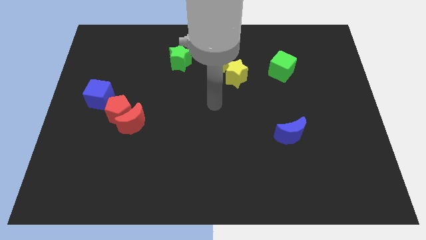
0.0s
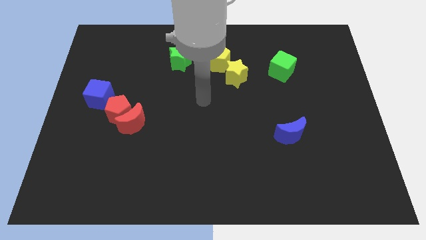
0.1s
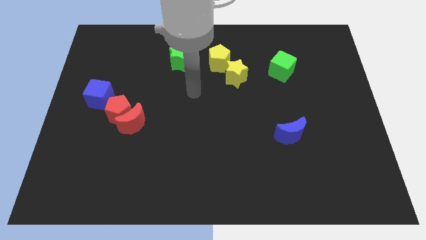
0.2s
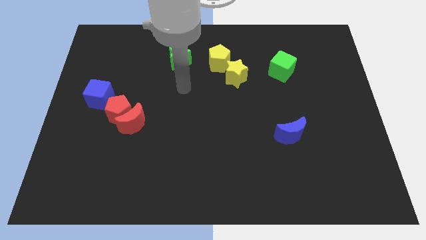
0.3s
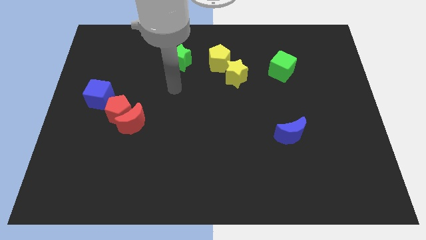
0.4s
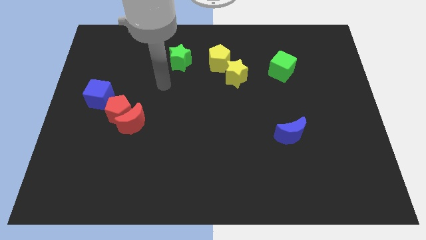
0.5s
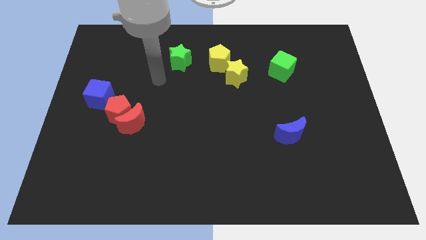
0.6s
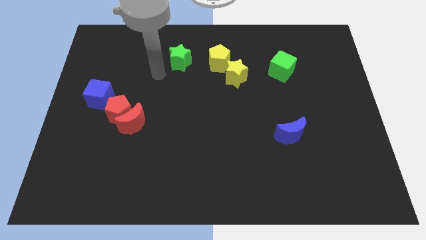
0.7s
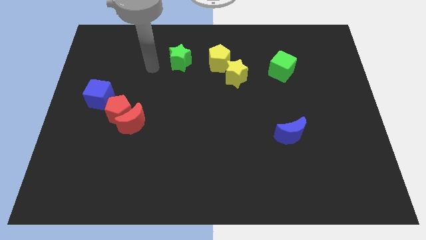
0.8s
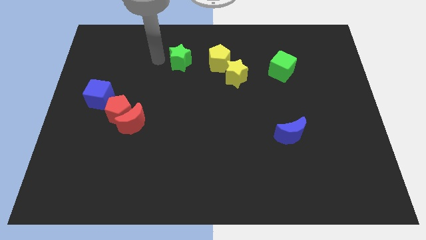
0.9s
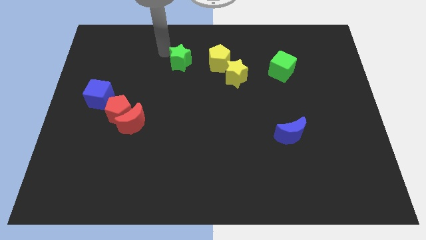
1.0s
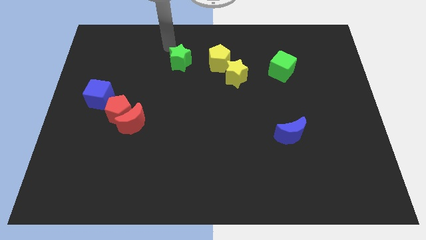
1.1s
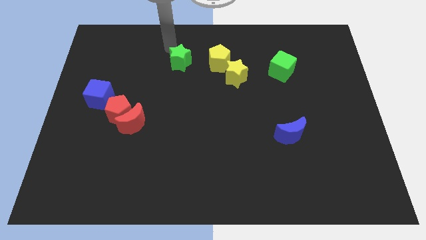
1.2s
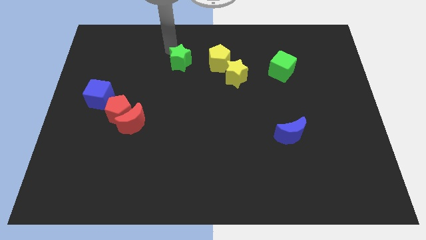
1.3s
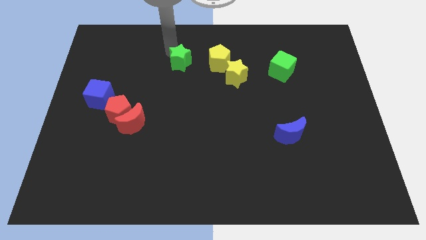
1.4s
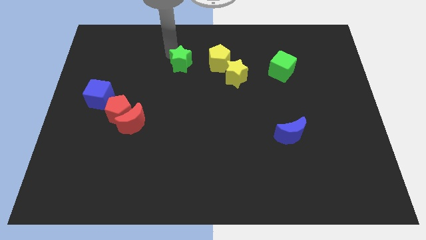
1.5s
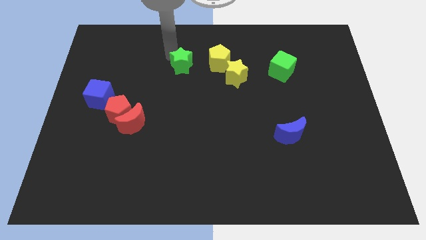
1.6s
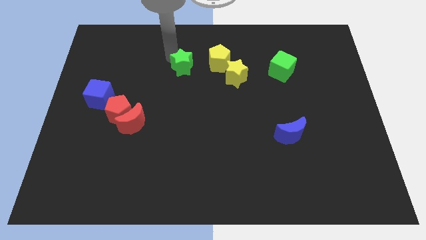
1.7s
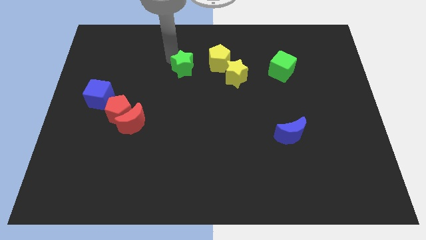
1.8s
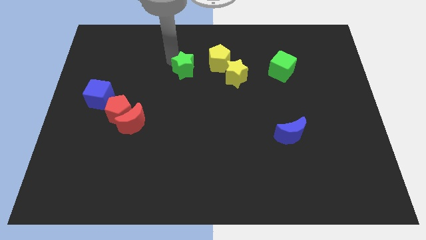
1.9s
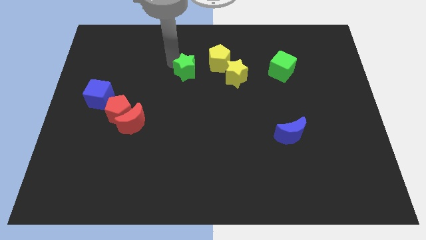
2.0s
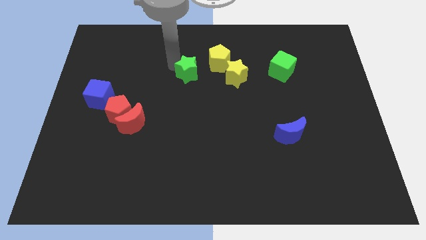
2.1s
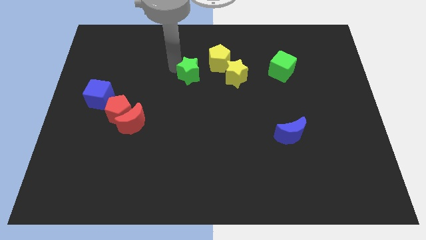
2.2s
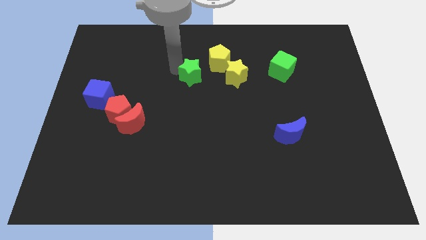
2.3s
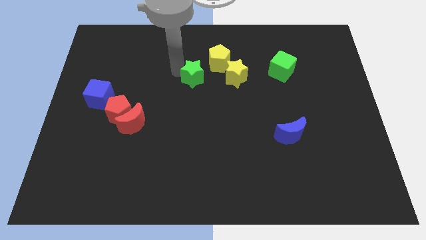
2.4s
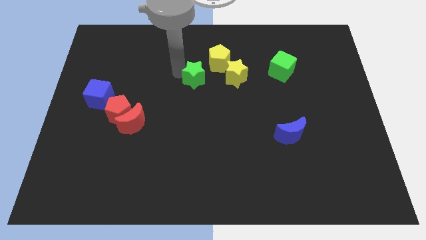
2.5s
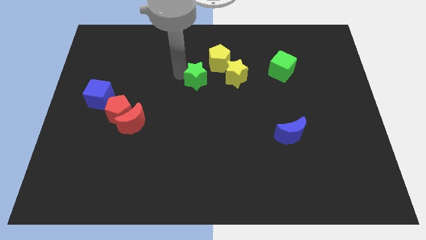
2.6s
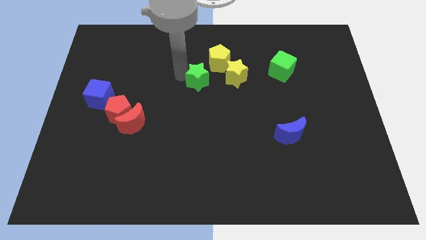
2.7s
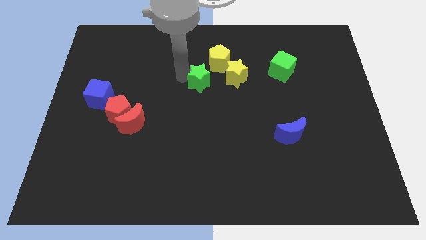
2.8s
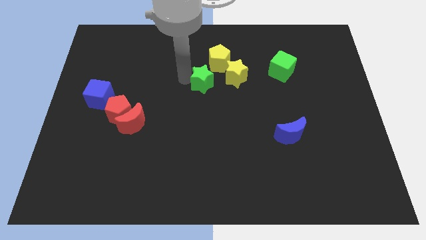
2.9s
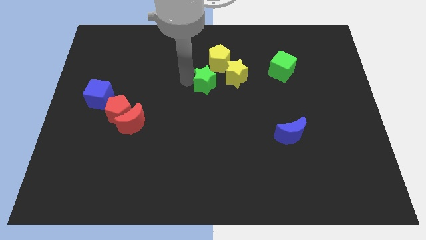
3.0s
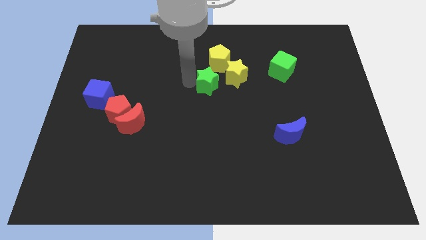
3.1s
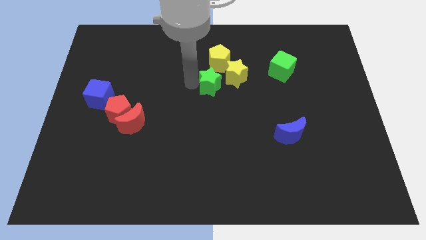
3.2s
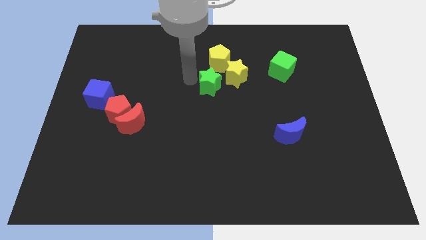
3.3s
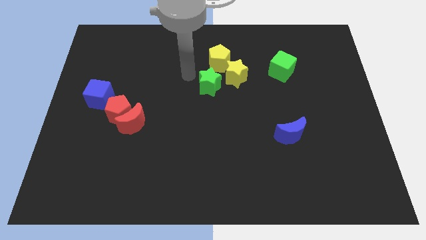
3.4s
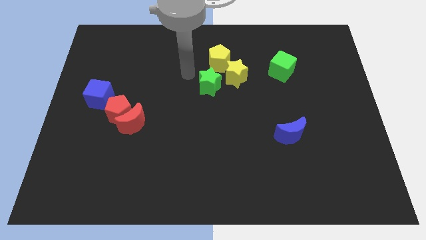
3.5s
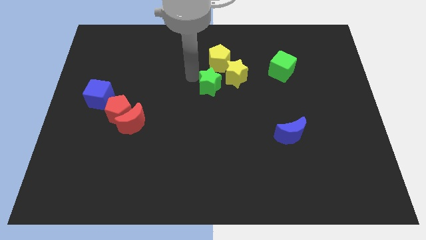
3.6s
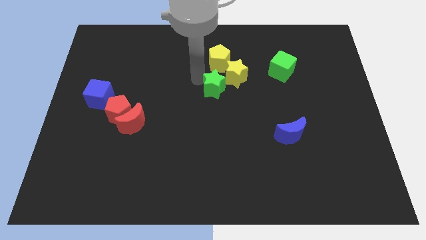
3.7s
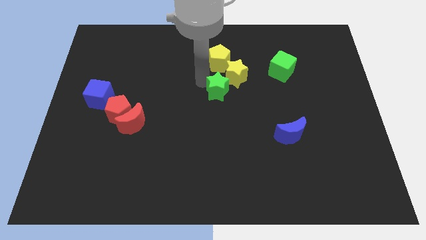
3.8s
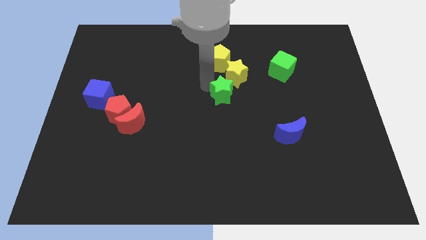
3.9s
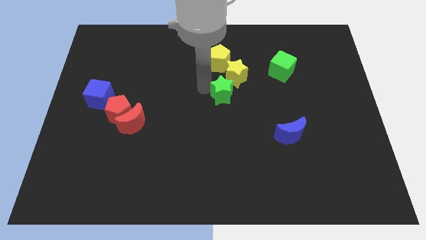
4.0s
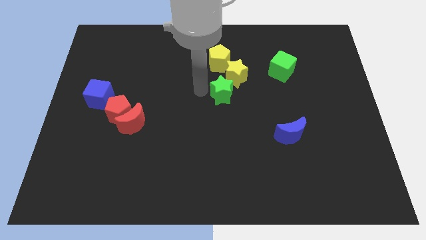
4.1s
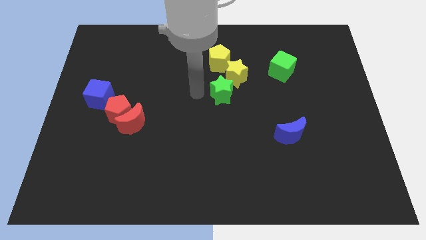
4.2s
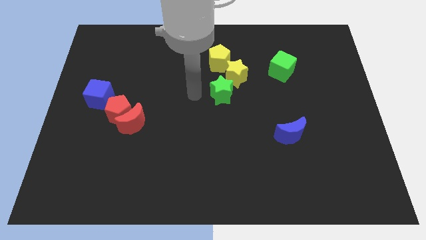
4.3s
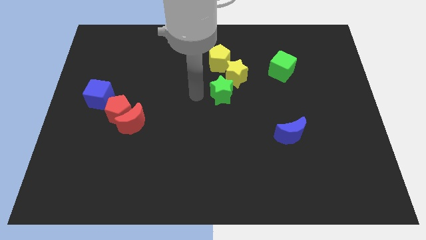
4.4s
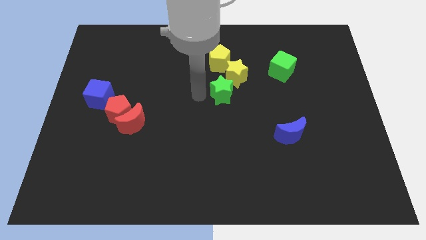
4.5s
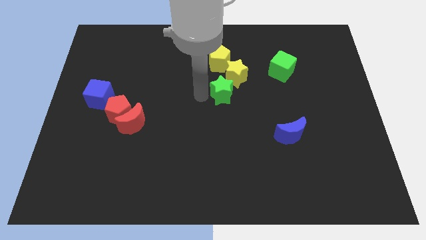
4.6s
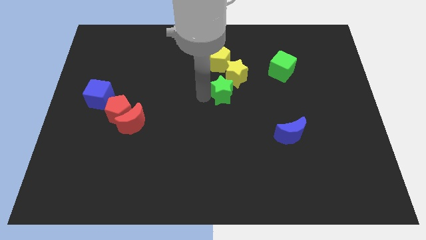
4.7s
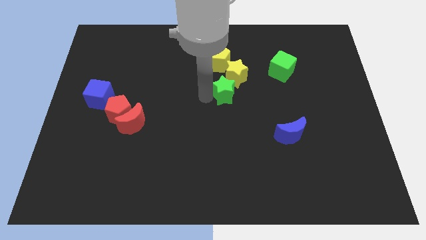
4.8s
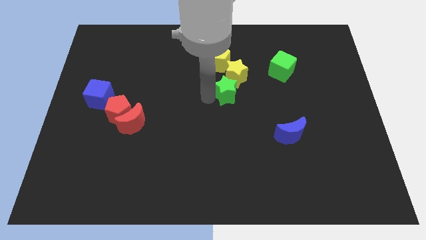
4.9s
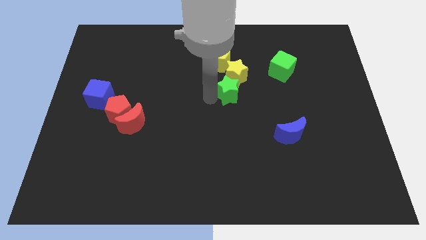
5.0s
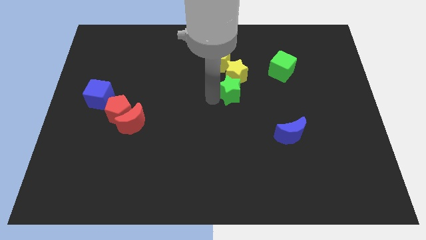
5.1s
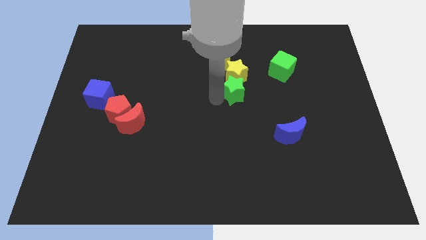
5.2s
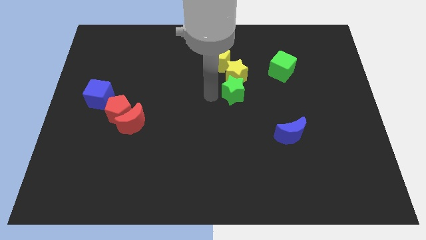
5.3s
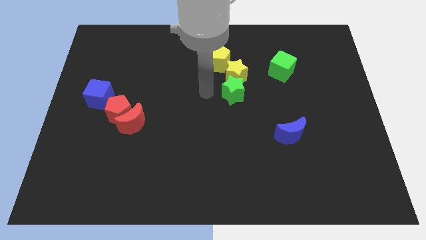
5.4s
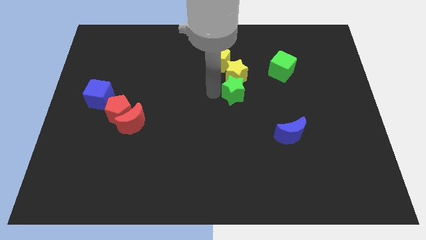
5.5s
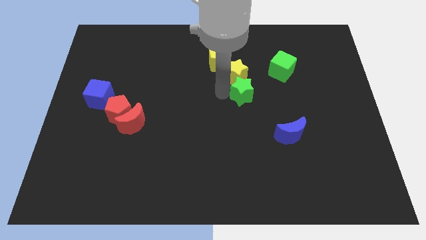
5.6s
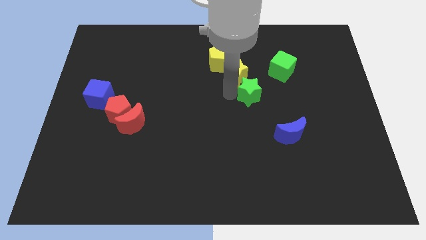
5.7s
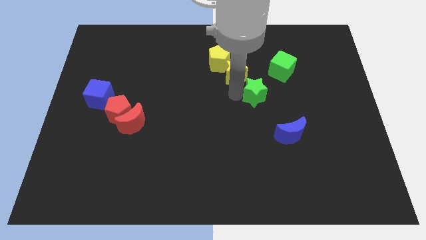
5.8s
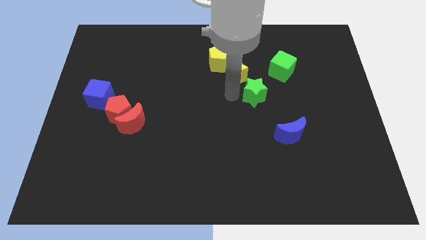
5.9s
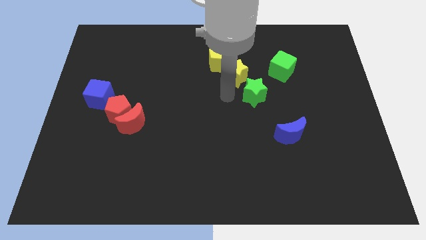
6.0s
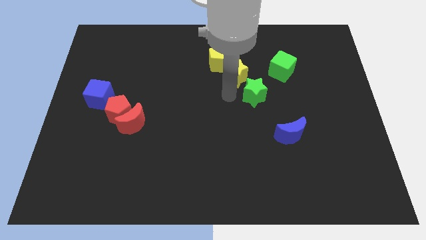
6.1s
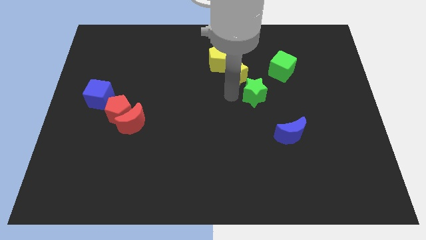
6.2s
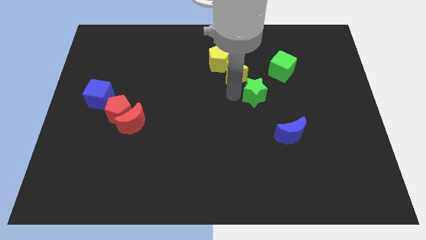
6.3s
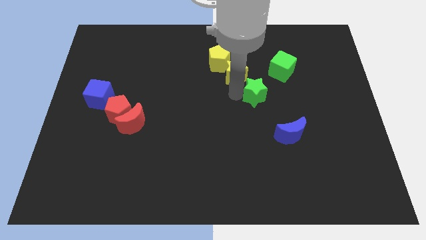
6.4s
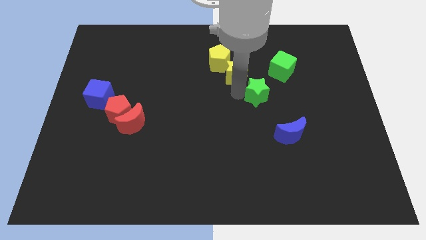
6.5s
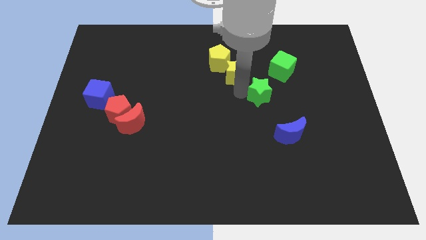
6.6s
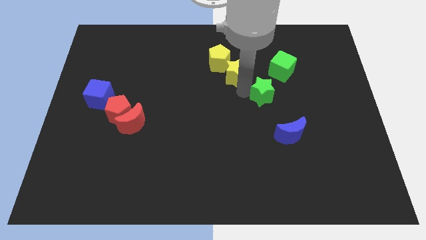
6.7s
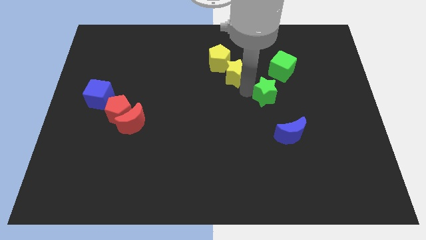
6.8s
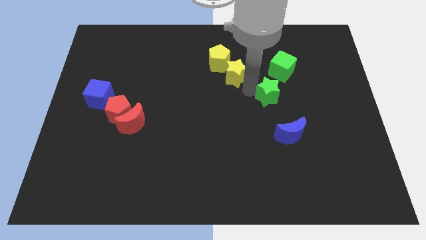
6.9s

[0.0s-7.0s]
push the green star to the bottom side of the green cube

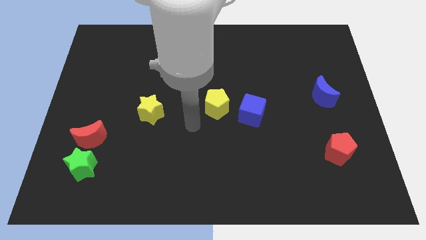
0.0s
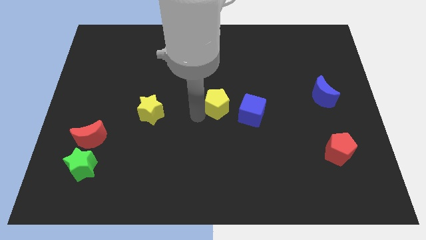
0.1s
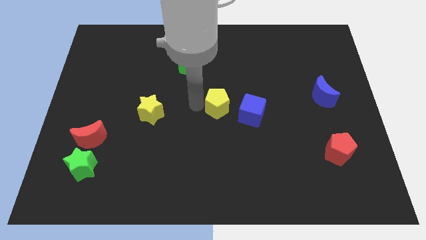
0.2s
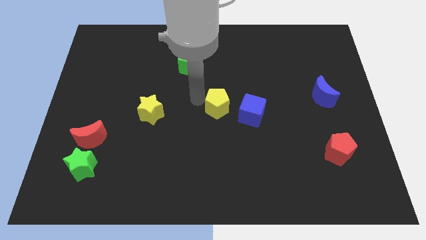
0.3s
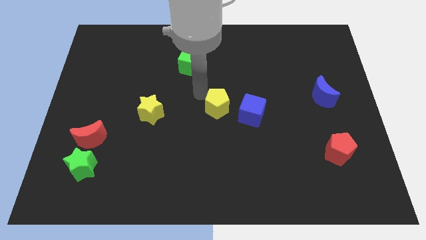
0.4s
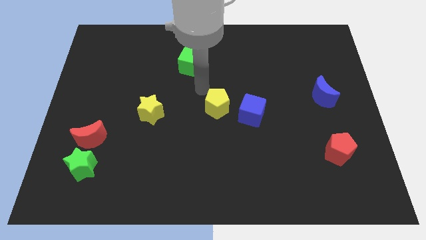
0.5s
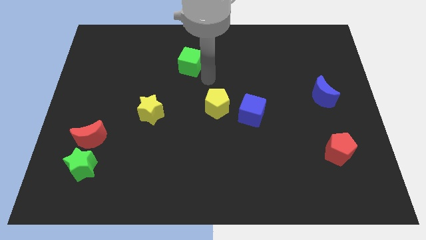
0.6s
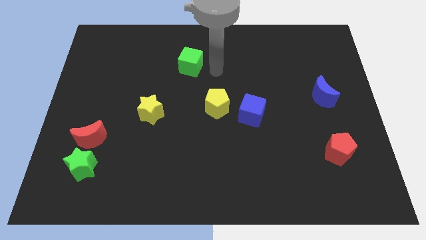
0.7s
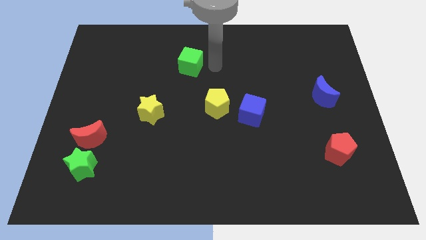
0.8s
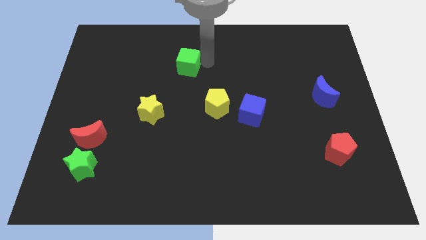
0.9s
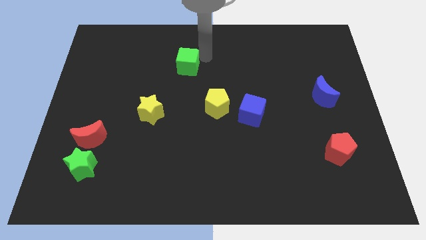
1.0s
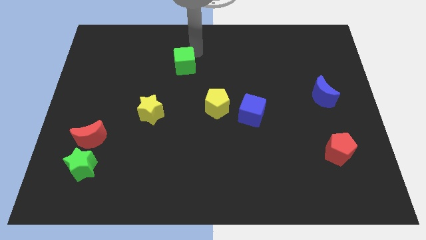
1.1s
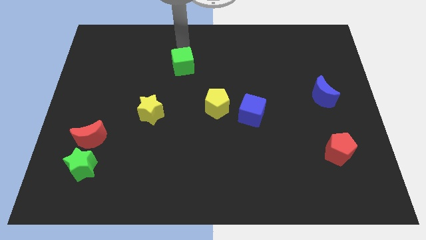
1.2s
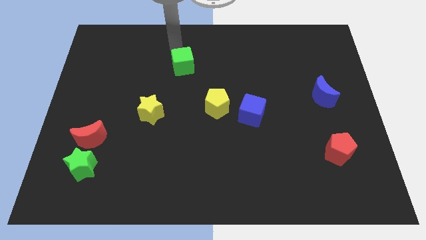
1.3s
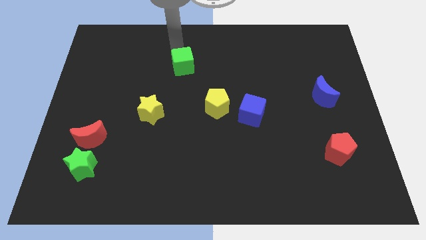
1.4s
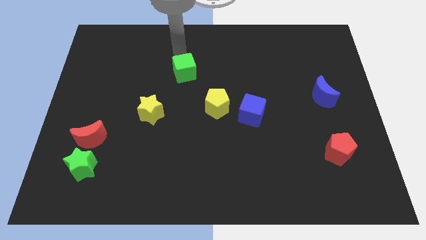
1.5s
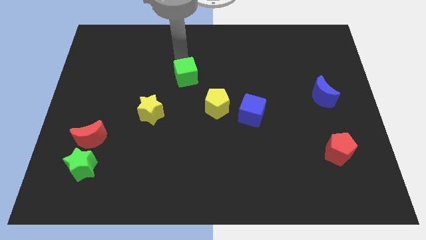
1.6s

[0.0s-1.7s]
move the green cube diagonally up and to the left of the yellow pentagon
